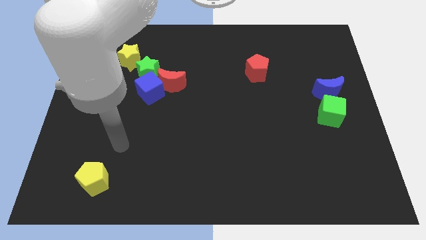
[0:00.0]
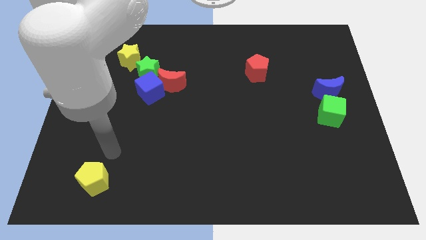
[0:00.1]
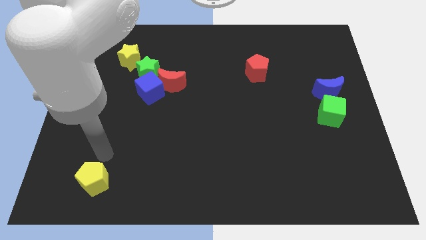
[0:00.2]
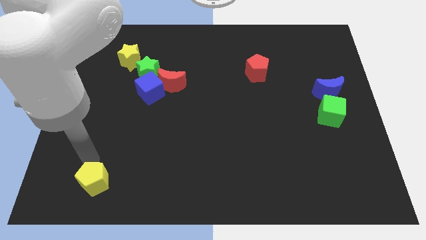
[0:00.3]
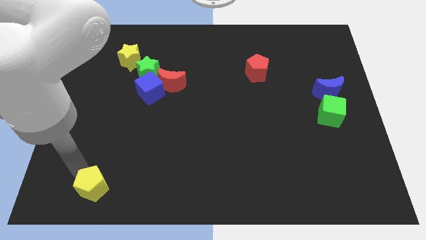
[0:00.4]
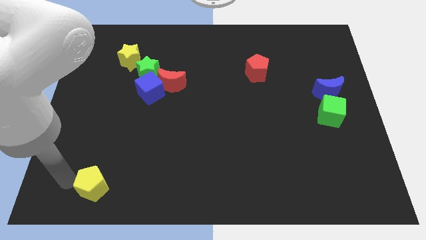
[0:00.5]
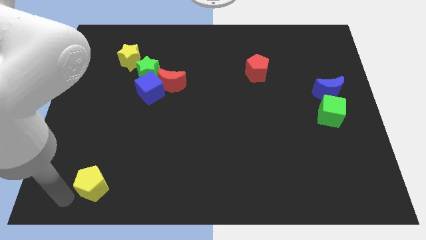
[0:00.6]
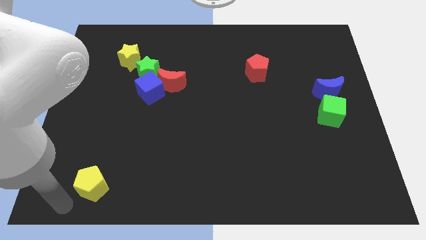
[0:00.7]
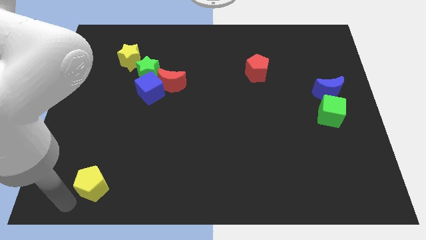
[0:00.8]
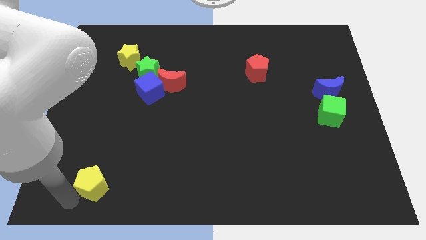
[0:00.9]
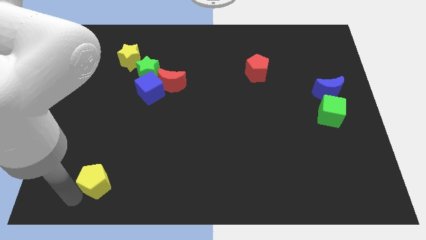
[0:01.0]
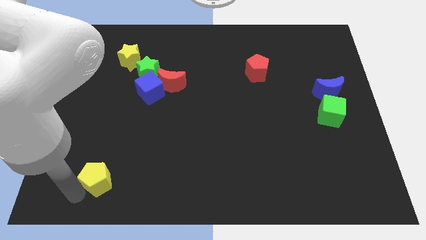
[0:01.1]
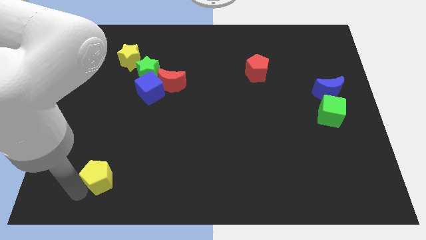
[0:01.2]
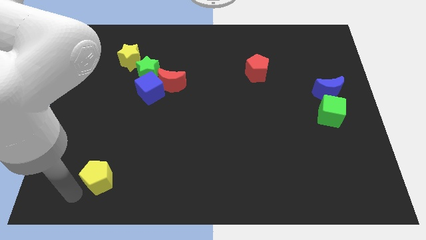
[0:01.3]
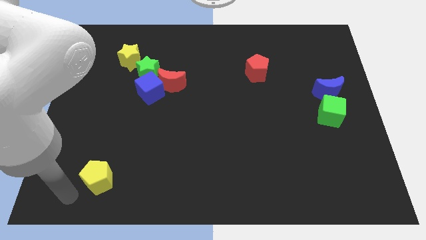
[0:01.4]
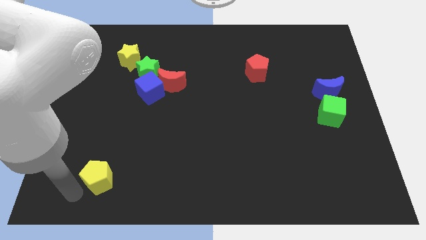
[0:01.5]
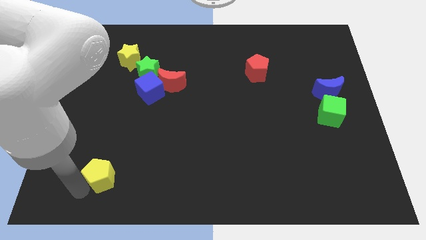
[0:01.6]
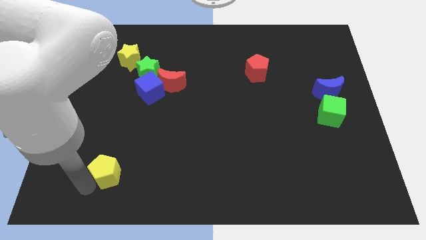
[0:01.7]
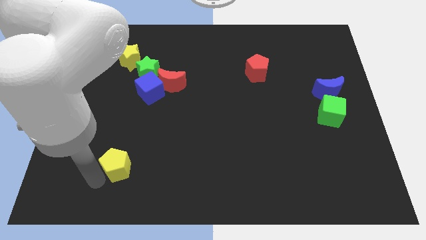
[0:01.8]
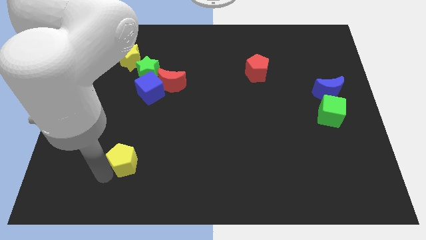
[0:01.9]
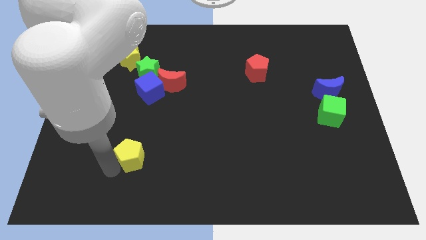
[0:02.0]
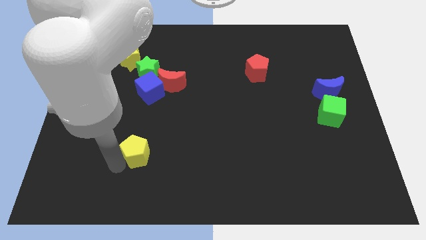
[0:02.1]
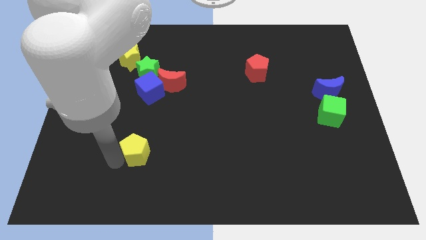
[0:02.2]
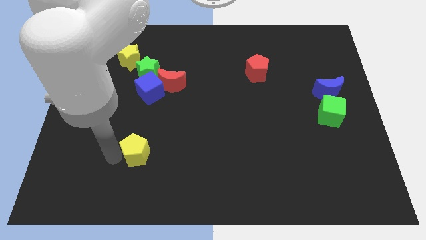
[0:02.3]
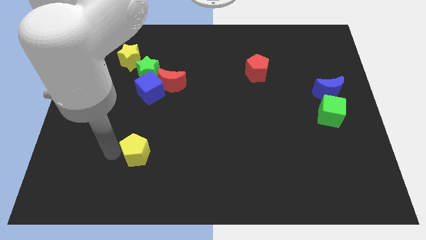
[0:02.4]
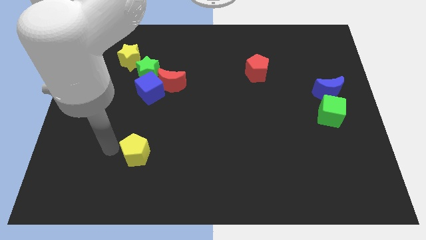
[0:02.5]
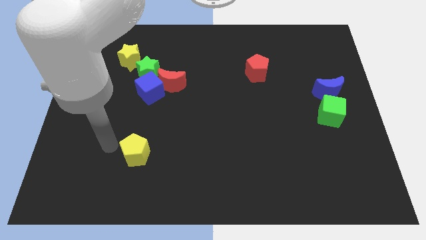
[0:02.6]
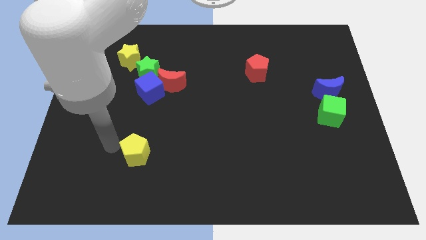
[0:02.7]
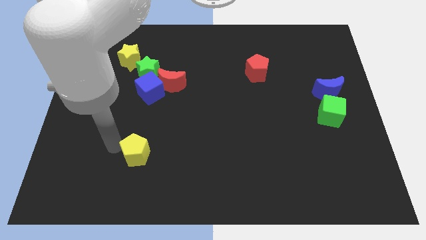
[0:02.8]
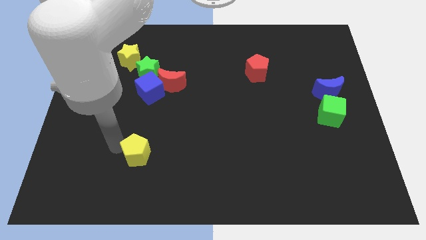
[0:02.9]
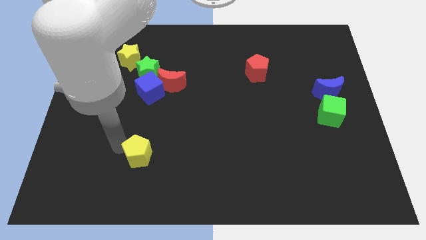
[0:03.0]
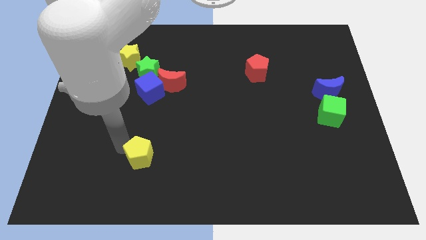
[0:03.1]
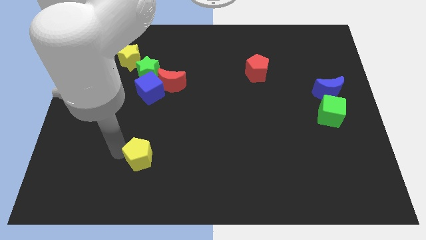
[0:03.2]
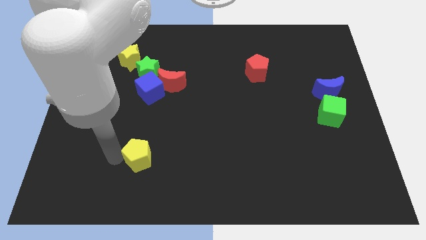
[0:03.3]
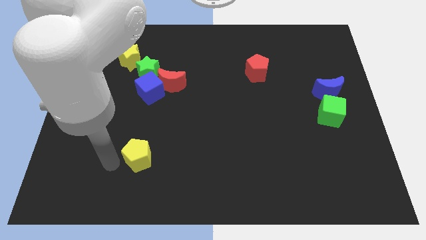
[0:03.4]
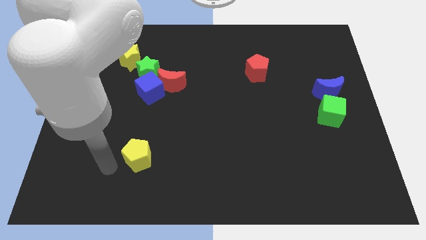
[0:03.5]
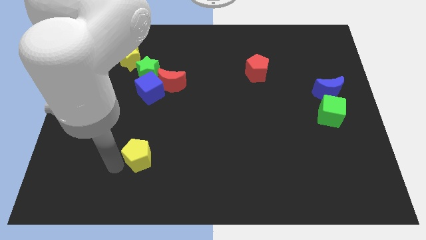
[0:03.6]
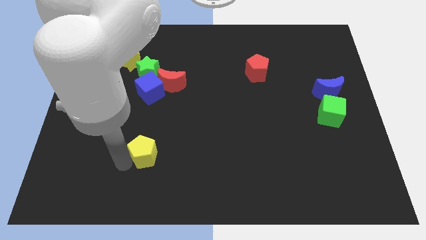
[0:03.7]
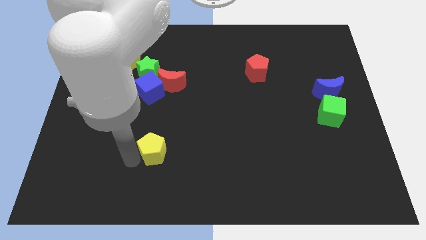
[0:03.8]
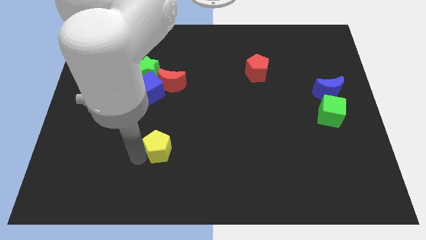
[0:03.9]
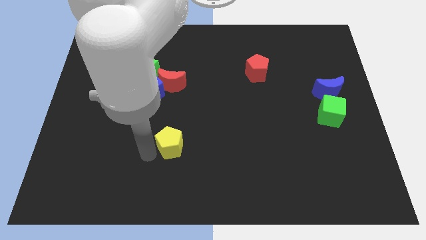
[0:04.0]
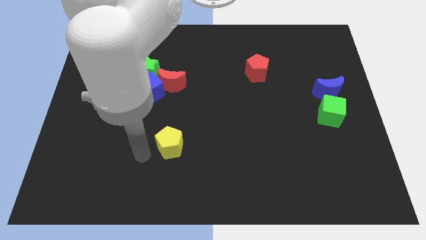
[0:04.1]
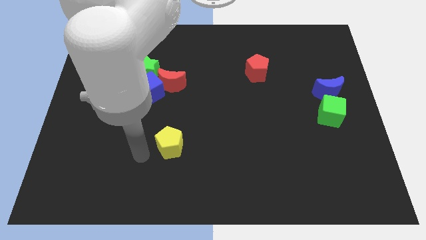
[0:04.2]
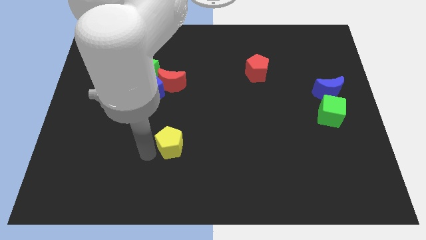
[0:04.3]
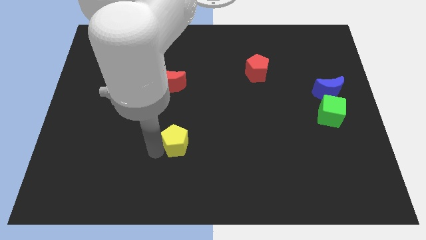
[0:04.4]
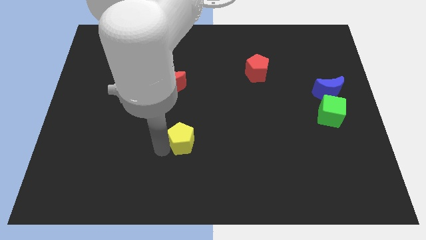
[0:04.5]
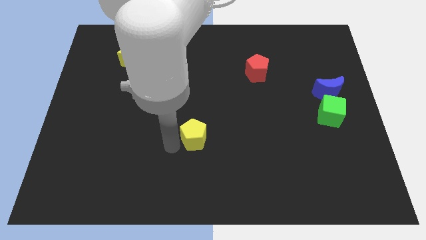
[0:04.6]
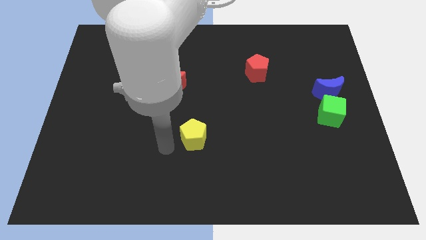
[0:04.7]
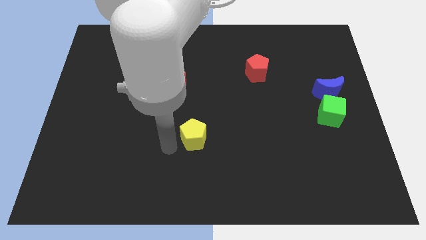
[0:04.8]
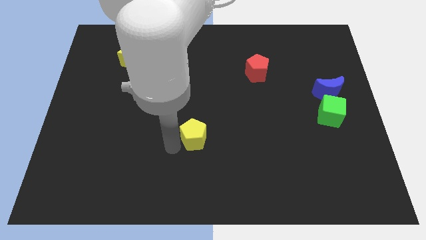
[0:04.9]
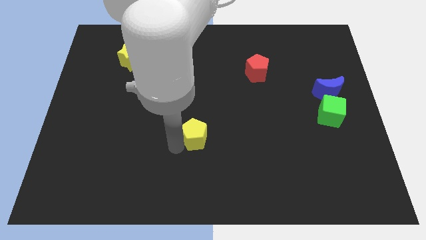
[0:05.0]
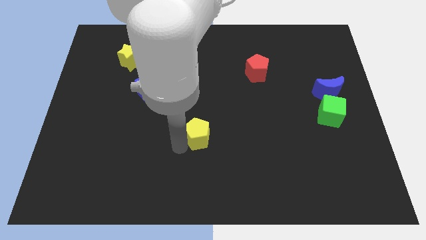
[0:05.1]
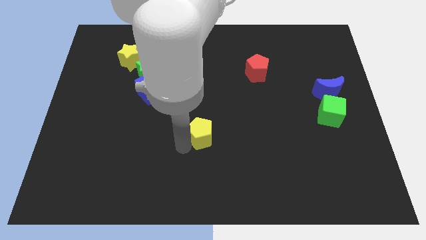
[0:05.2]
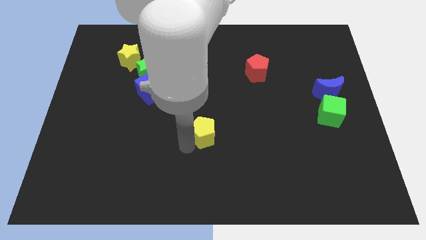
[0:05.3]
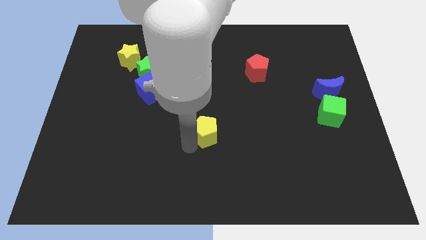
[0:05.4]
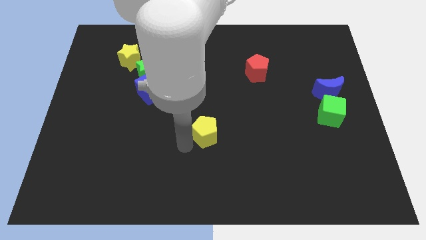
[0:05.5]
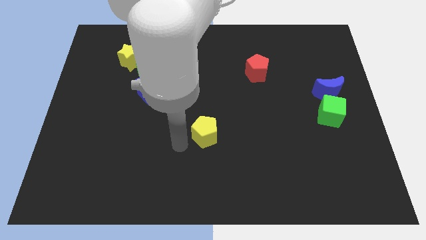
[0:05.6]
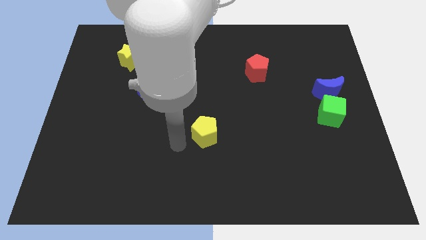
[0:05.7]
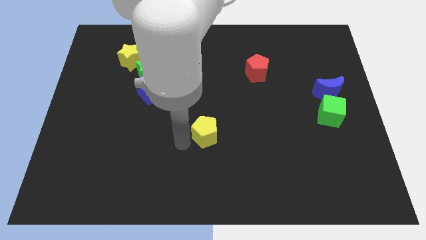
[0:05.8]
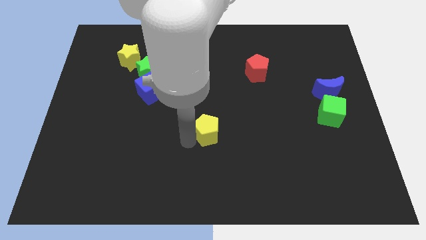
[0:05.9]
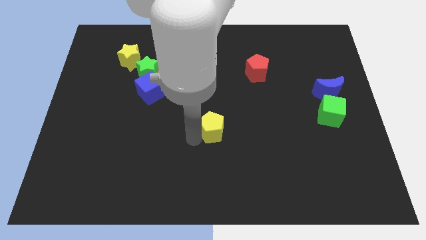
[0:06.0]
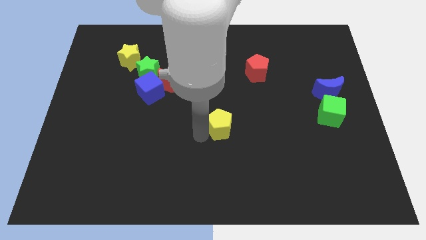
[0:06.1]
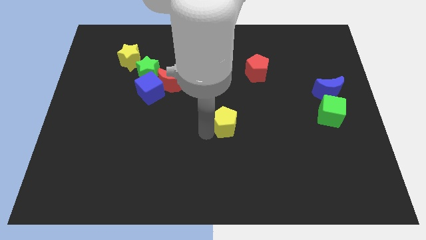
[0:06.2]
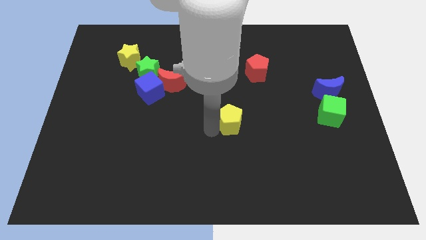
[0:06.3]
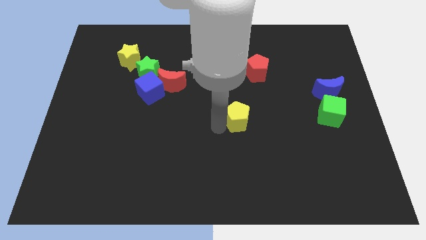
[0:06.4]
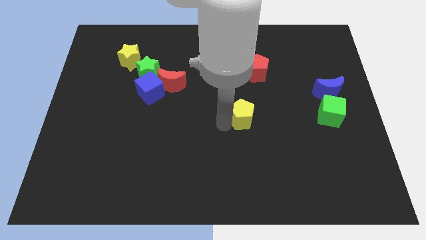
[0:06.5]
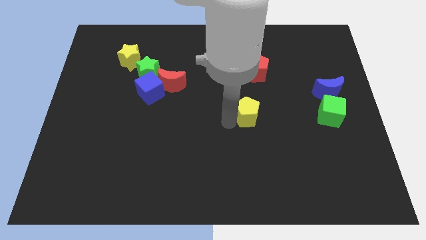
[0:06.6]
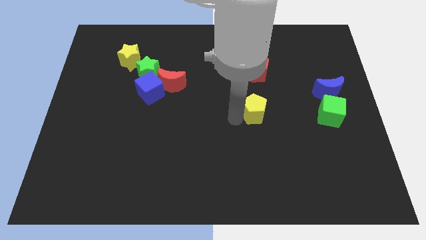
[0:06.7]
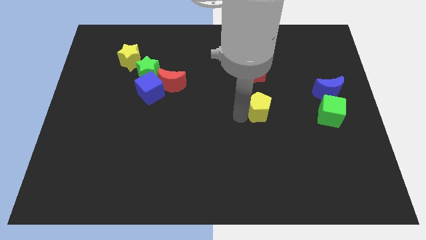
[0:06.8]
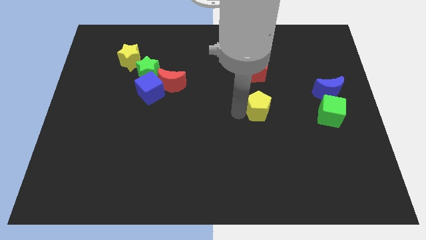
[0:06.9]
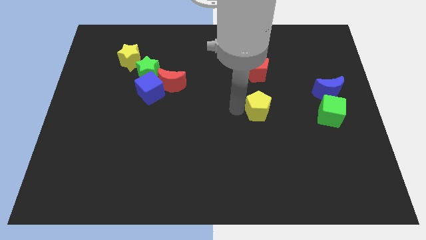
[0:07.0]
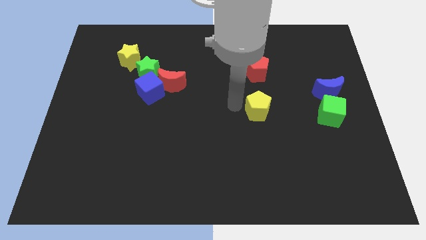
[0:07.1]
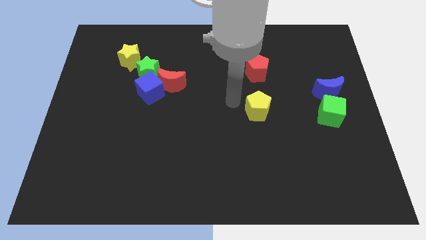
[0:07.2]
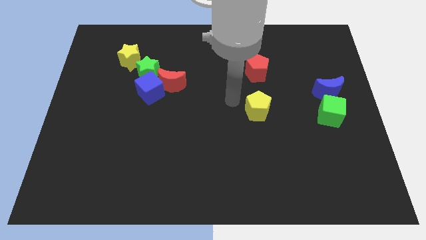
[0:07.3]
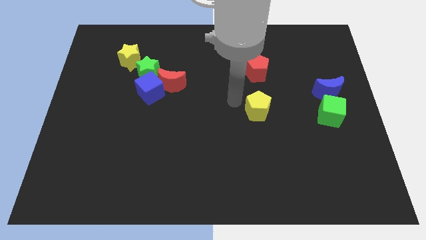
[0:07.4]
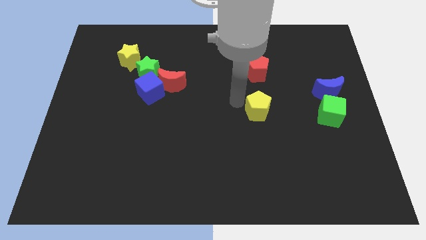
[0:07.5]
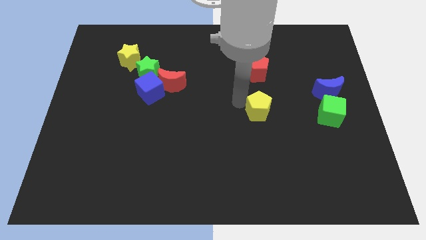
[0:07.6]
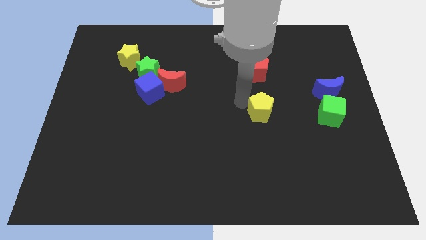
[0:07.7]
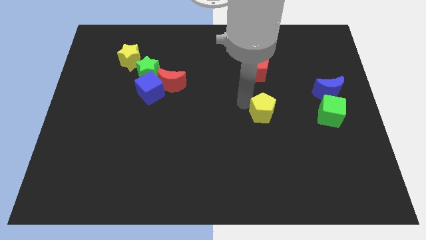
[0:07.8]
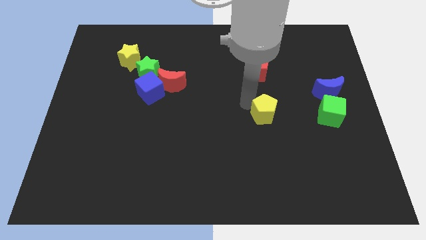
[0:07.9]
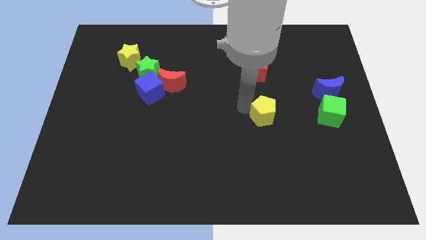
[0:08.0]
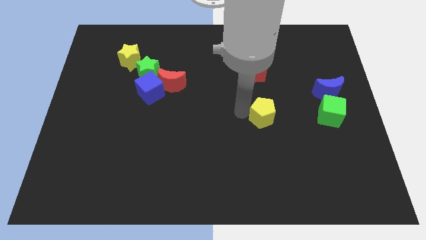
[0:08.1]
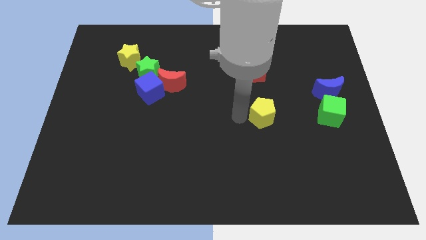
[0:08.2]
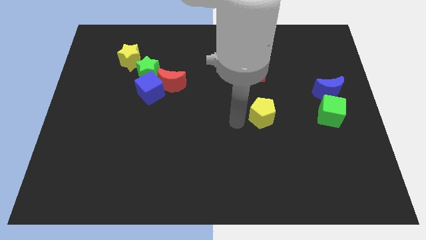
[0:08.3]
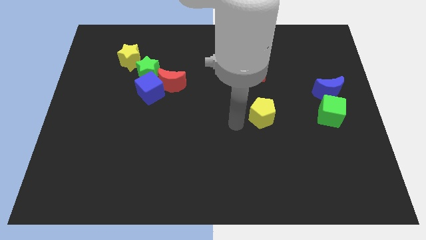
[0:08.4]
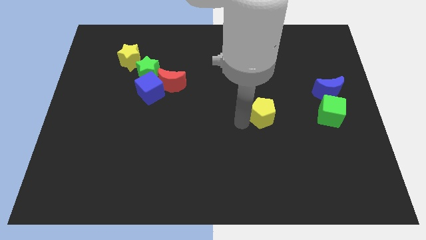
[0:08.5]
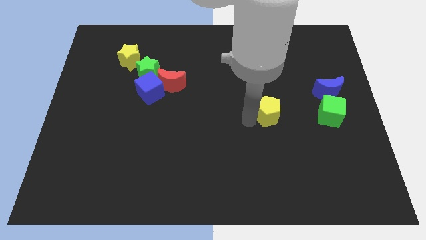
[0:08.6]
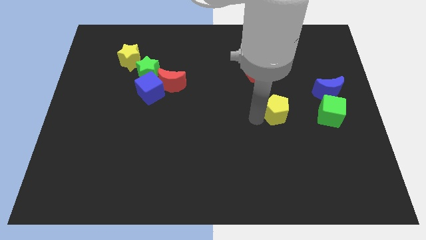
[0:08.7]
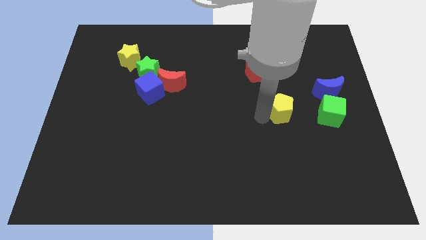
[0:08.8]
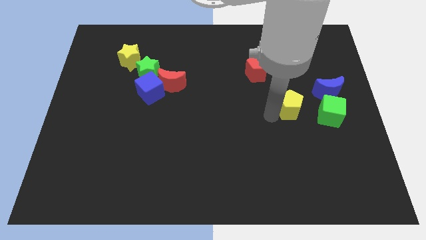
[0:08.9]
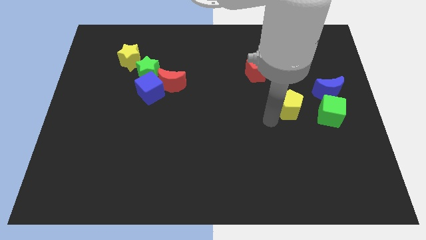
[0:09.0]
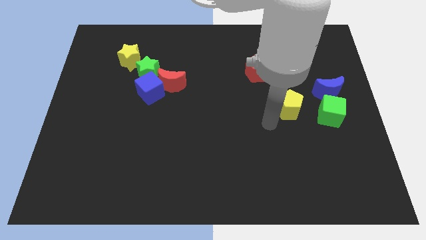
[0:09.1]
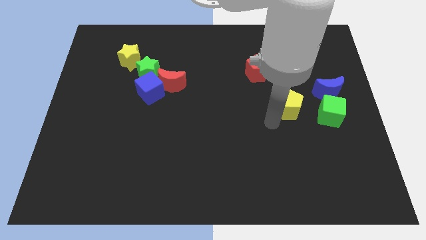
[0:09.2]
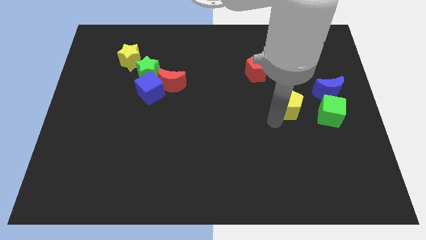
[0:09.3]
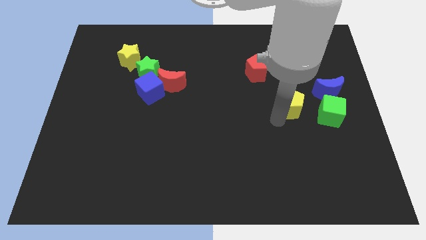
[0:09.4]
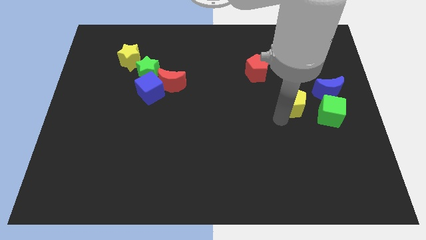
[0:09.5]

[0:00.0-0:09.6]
push the yellow pentagon diagonally up and to the left of the green cube
